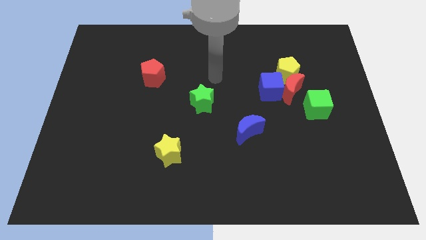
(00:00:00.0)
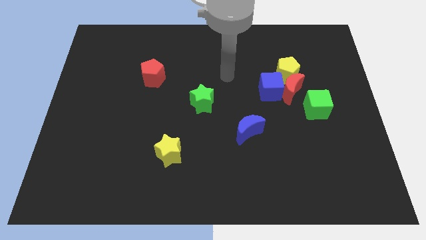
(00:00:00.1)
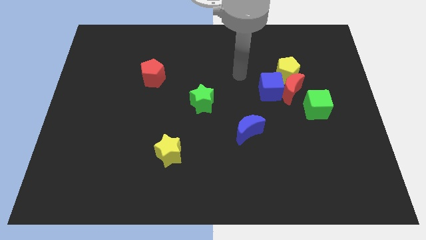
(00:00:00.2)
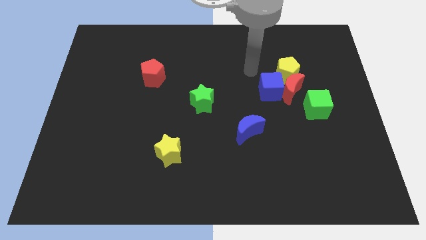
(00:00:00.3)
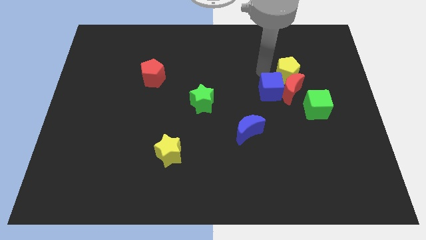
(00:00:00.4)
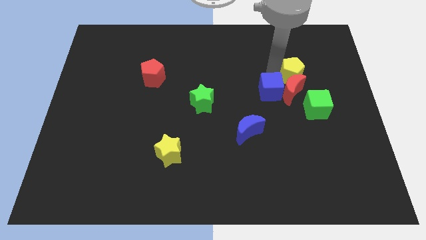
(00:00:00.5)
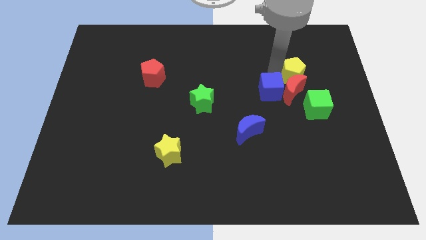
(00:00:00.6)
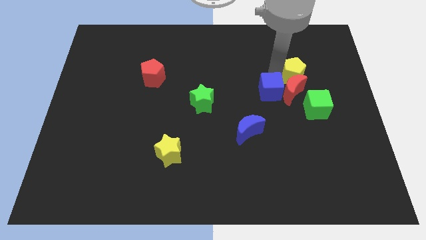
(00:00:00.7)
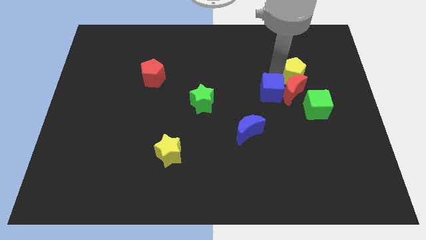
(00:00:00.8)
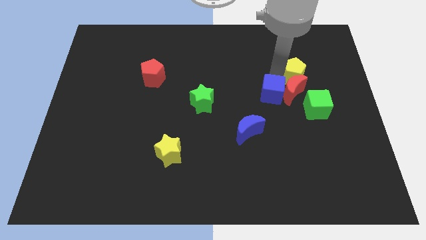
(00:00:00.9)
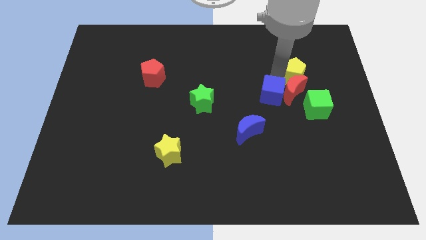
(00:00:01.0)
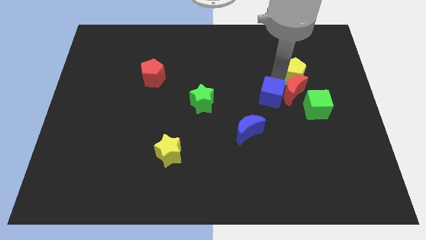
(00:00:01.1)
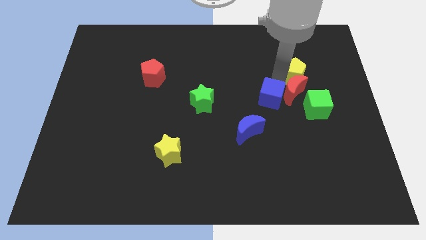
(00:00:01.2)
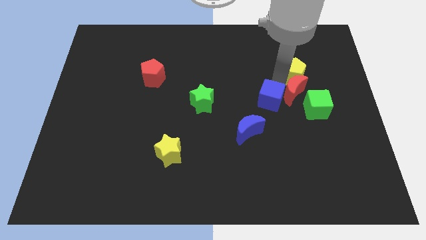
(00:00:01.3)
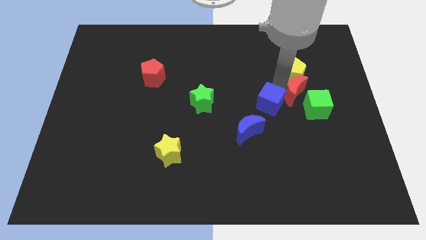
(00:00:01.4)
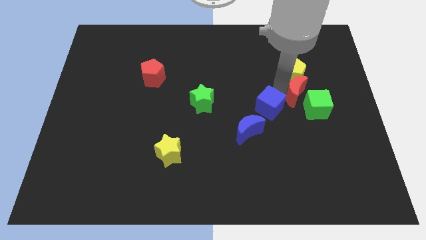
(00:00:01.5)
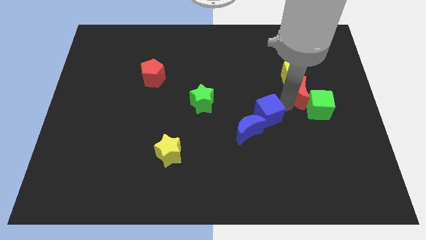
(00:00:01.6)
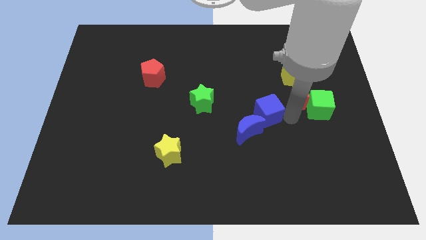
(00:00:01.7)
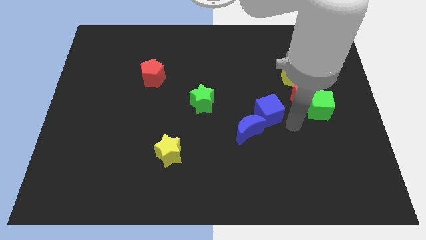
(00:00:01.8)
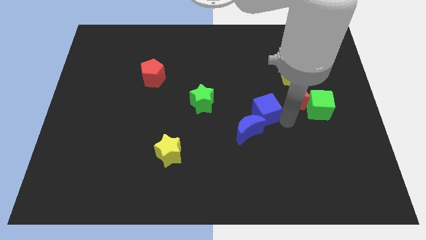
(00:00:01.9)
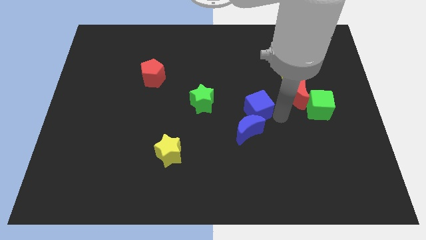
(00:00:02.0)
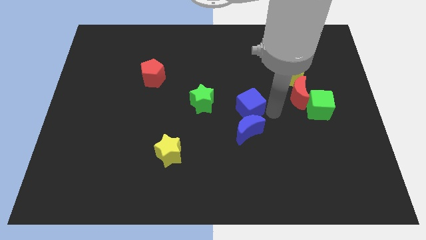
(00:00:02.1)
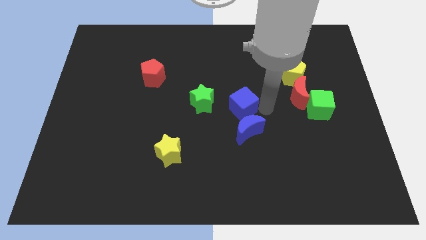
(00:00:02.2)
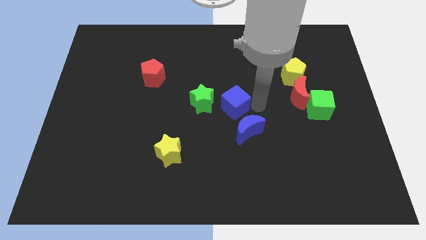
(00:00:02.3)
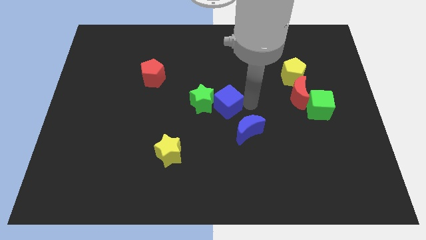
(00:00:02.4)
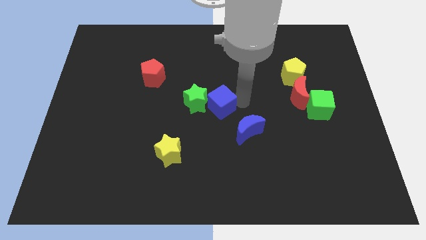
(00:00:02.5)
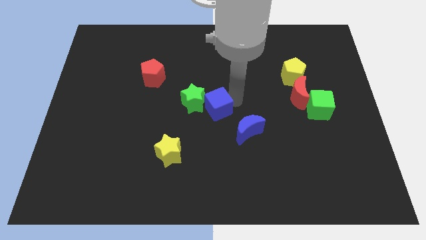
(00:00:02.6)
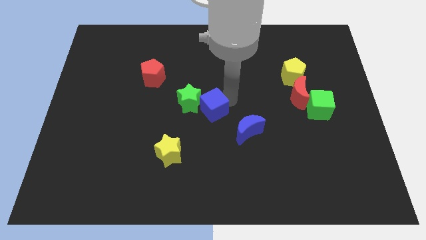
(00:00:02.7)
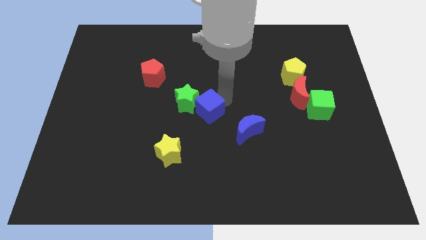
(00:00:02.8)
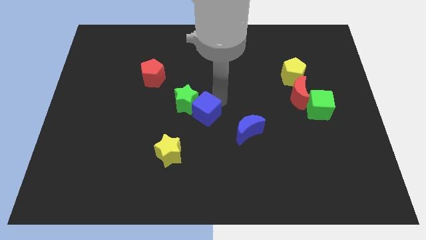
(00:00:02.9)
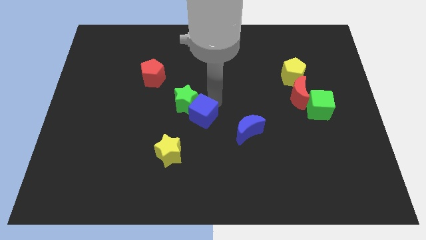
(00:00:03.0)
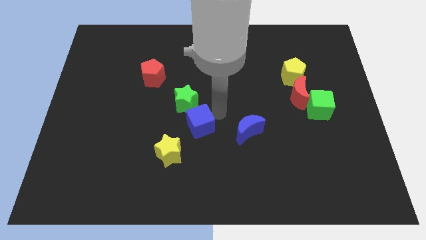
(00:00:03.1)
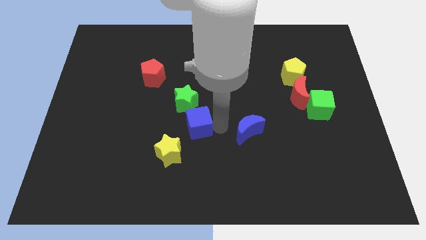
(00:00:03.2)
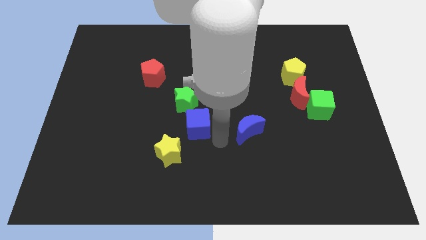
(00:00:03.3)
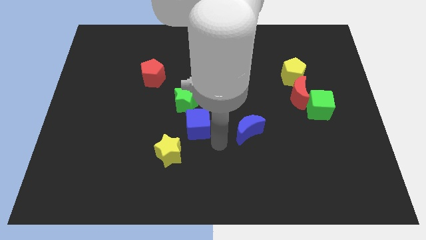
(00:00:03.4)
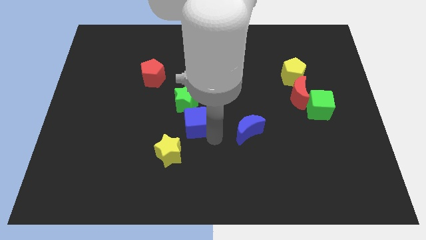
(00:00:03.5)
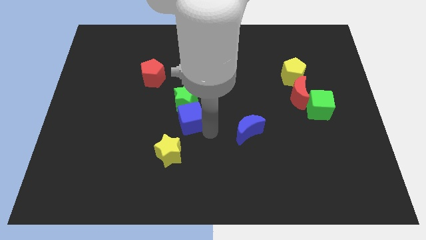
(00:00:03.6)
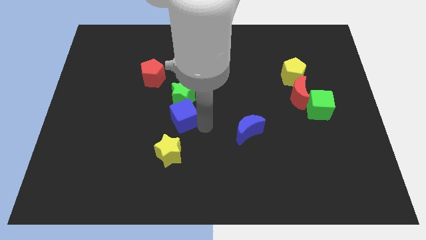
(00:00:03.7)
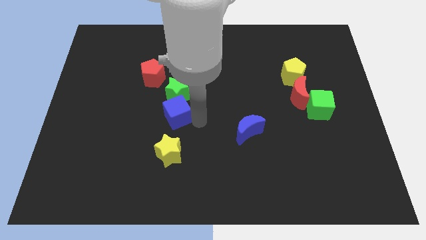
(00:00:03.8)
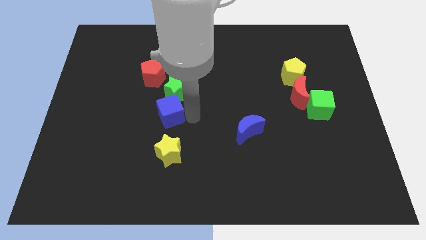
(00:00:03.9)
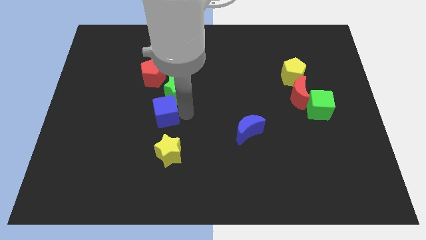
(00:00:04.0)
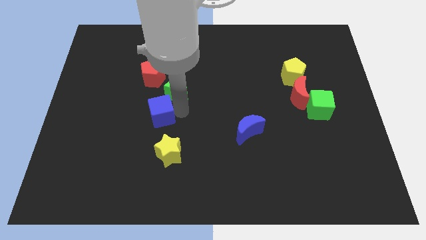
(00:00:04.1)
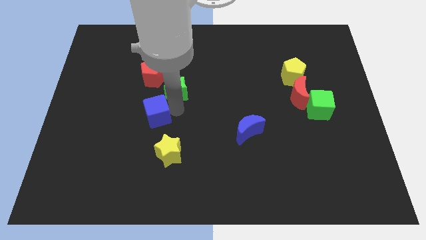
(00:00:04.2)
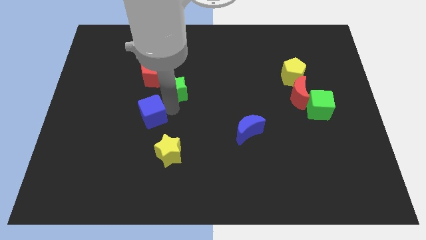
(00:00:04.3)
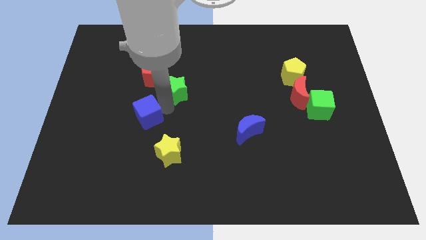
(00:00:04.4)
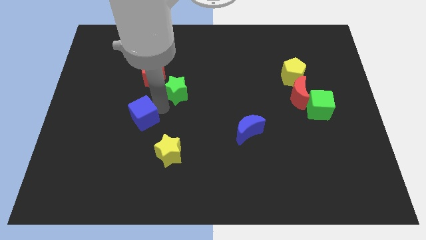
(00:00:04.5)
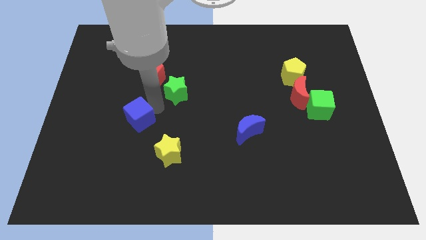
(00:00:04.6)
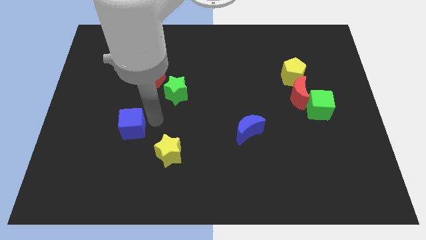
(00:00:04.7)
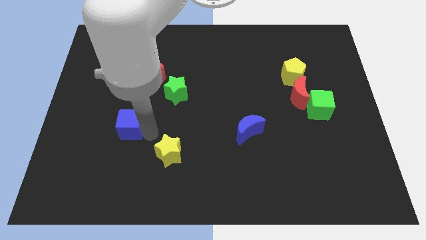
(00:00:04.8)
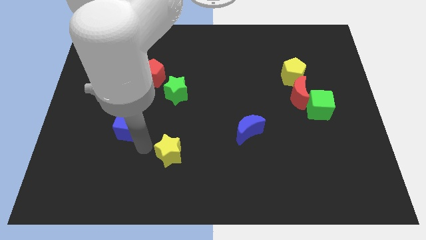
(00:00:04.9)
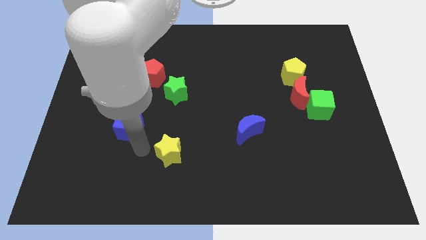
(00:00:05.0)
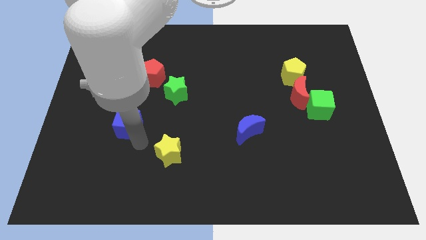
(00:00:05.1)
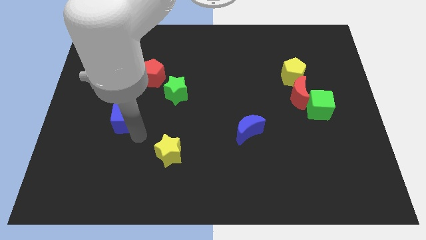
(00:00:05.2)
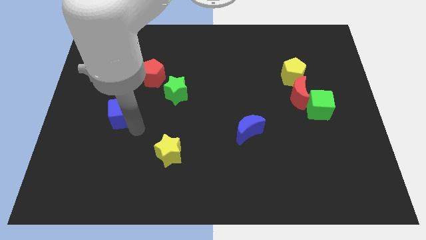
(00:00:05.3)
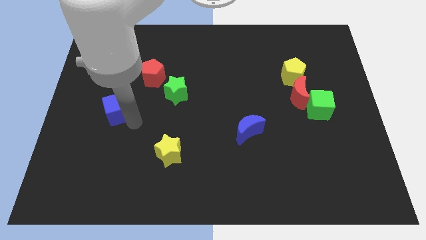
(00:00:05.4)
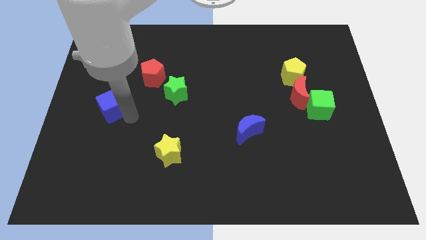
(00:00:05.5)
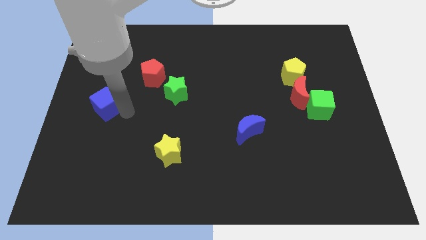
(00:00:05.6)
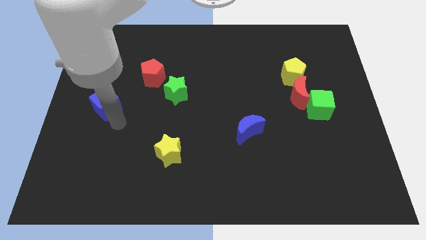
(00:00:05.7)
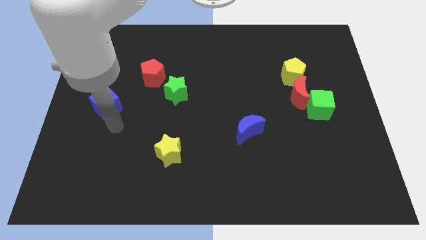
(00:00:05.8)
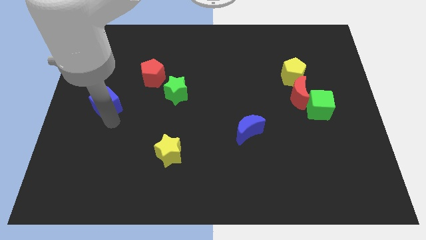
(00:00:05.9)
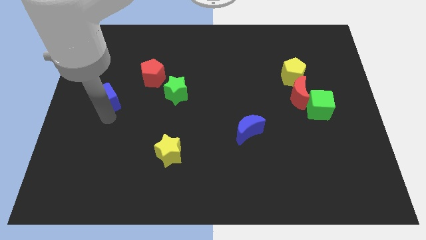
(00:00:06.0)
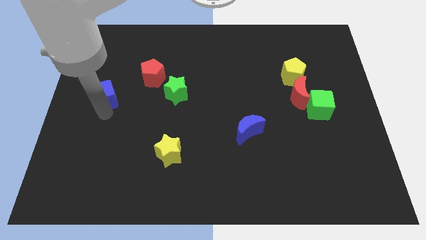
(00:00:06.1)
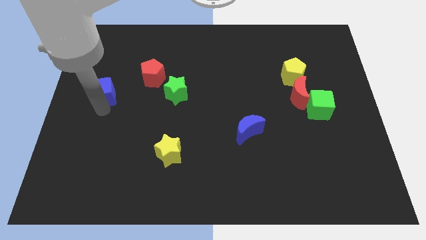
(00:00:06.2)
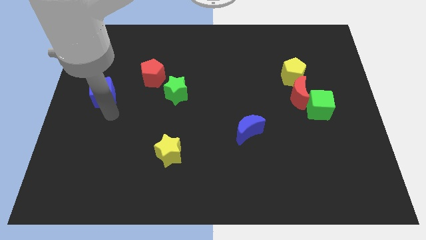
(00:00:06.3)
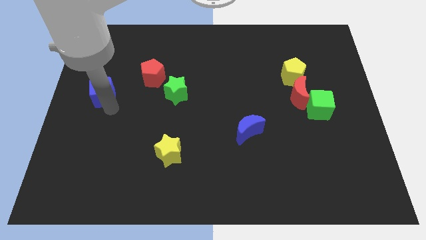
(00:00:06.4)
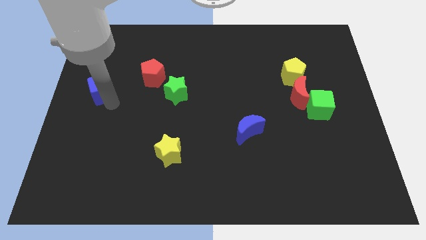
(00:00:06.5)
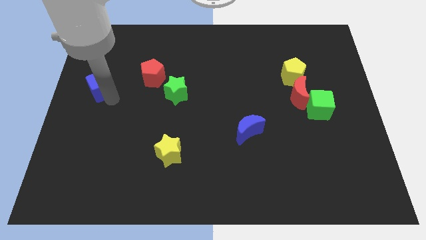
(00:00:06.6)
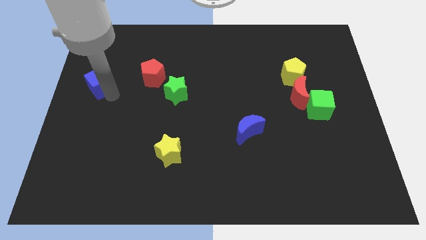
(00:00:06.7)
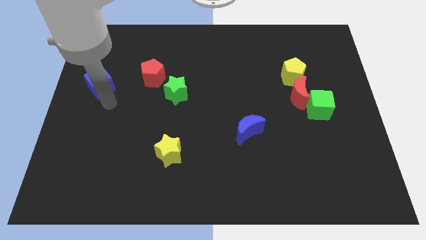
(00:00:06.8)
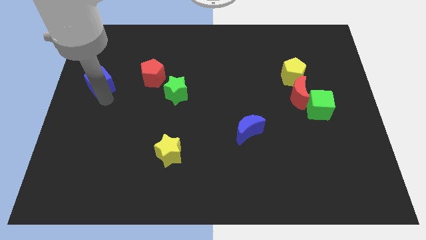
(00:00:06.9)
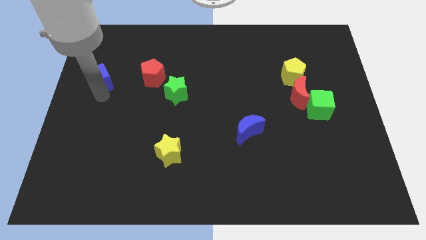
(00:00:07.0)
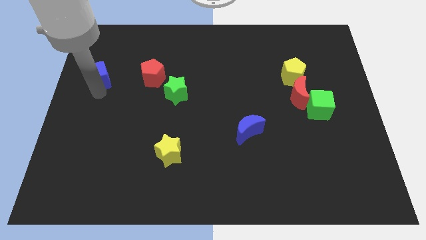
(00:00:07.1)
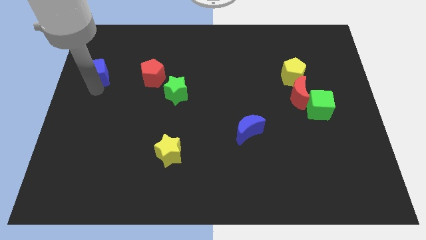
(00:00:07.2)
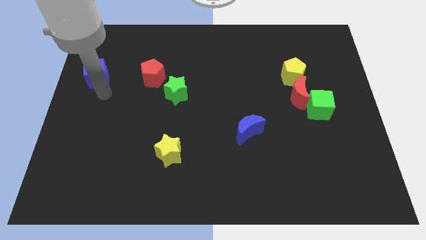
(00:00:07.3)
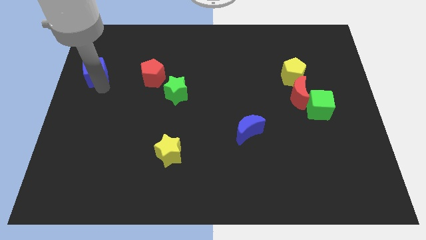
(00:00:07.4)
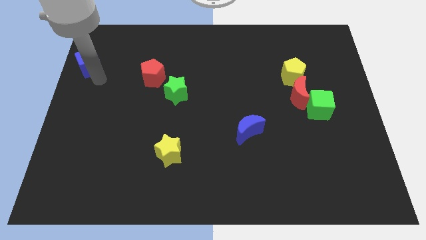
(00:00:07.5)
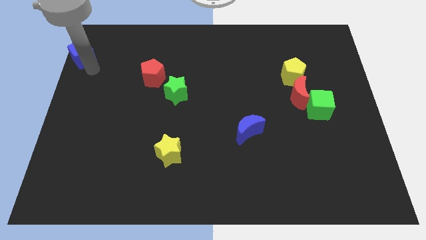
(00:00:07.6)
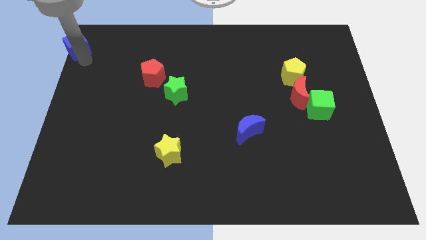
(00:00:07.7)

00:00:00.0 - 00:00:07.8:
move the blue cube to the upper left corner
